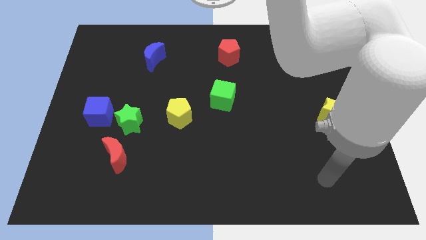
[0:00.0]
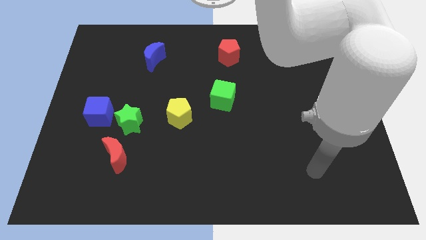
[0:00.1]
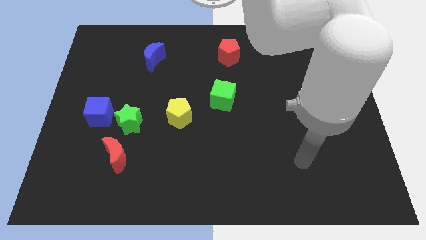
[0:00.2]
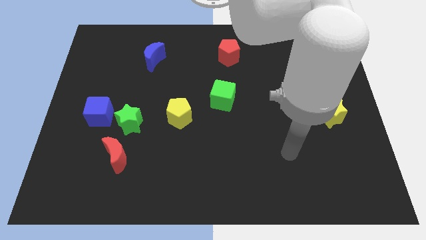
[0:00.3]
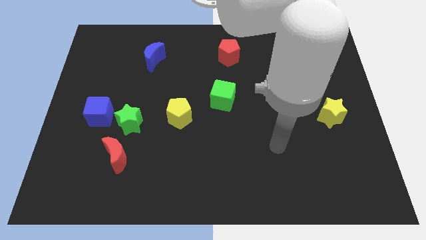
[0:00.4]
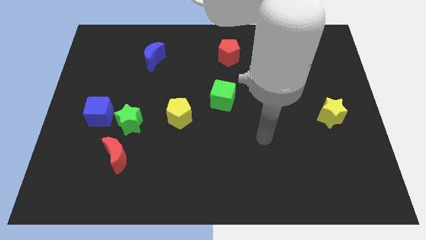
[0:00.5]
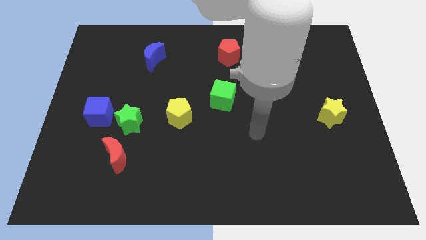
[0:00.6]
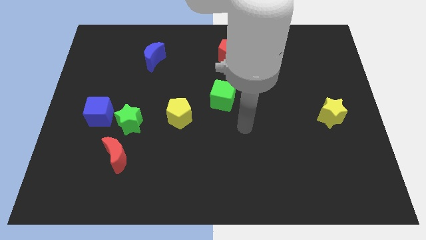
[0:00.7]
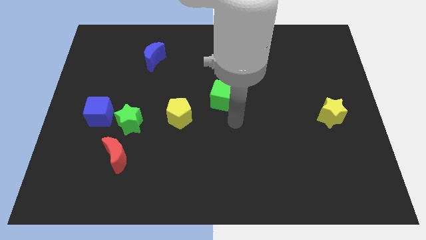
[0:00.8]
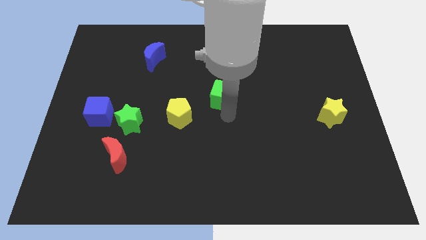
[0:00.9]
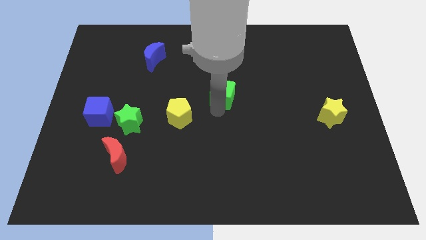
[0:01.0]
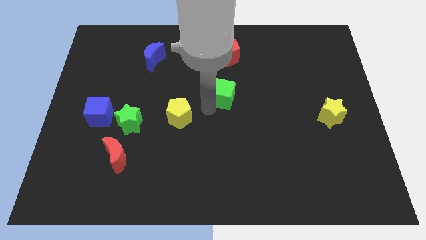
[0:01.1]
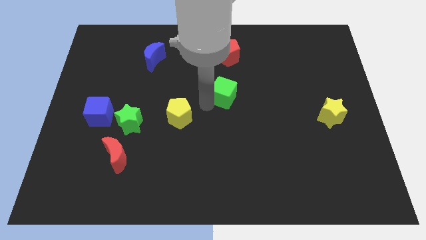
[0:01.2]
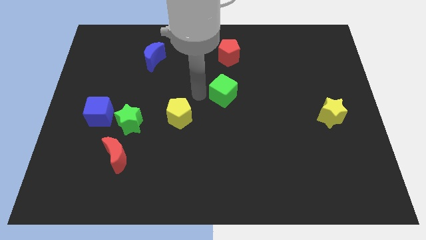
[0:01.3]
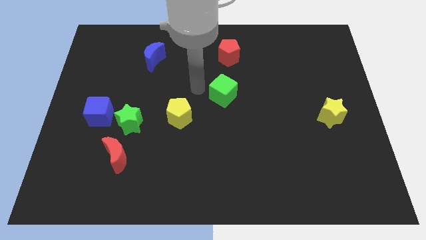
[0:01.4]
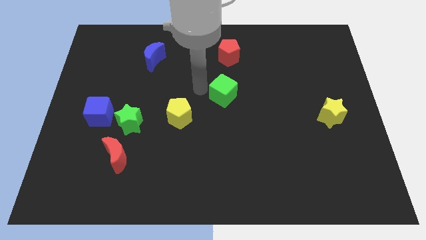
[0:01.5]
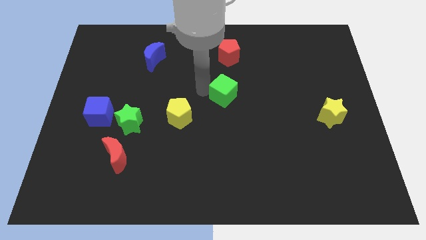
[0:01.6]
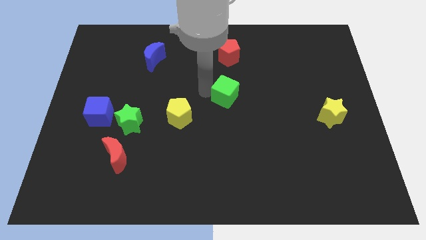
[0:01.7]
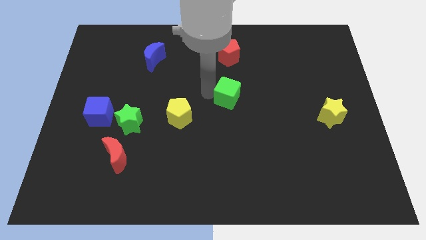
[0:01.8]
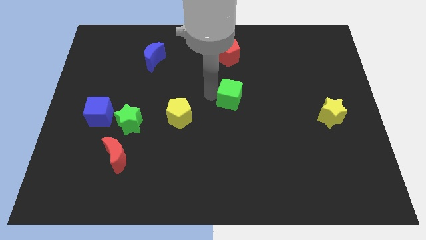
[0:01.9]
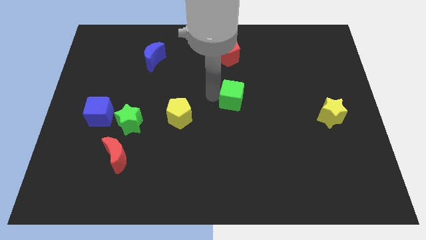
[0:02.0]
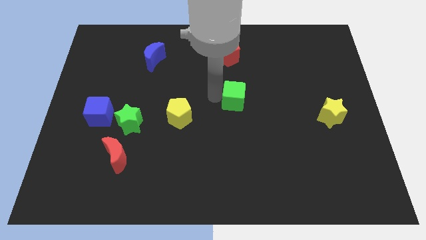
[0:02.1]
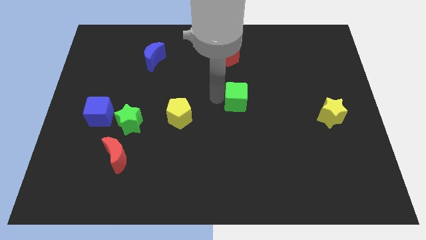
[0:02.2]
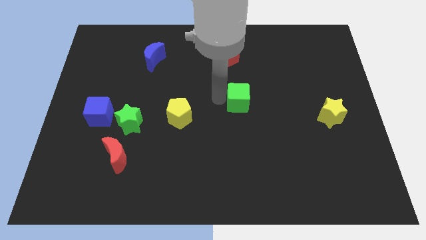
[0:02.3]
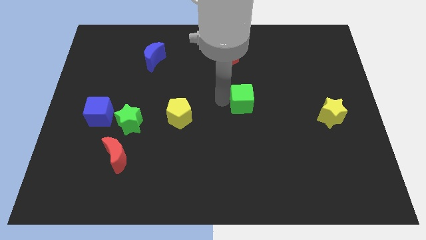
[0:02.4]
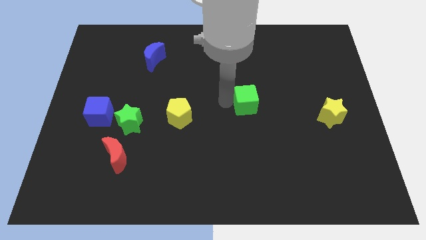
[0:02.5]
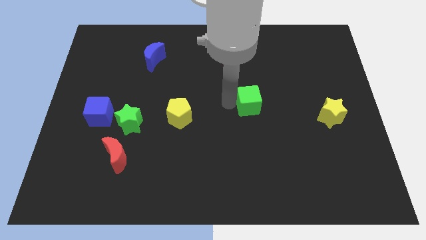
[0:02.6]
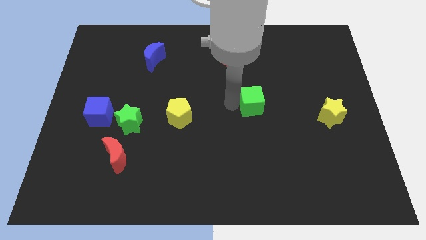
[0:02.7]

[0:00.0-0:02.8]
slightly move the green cube right

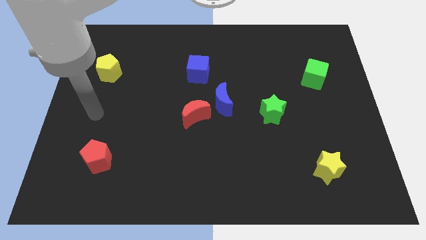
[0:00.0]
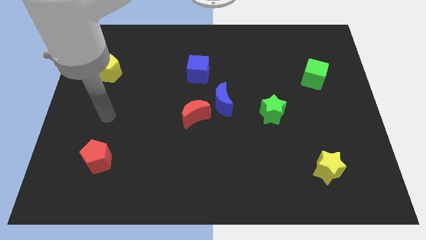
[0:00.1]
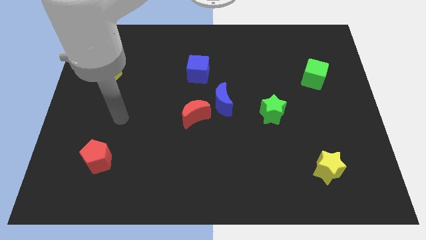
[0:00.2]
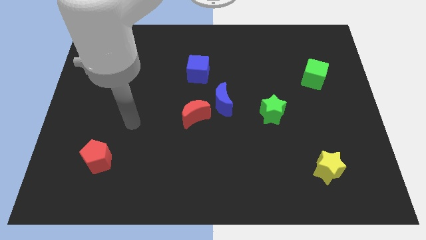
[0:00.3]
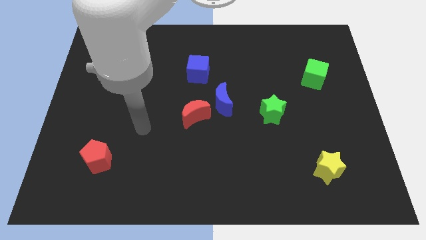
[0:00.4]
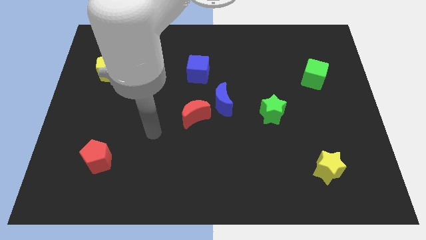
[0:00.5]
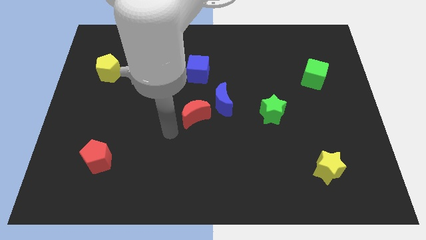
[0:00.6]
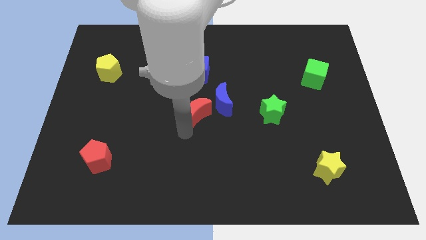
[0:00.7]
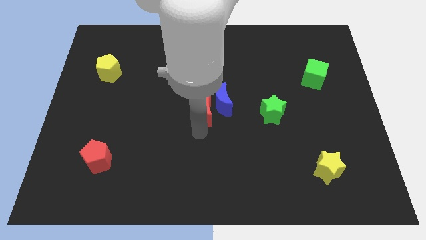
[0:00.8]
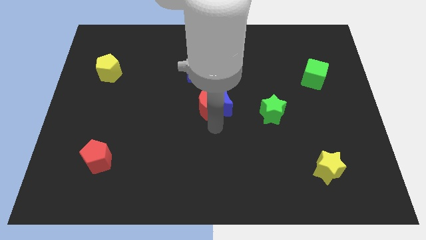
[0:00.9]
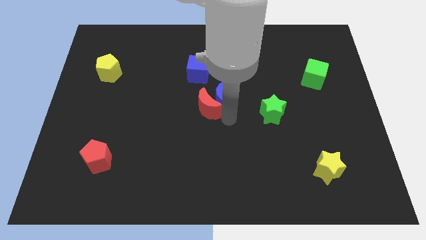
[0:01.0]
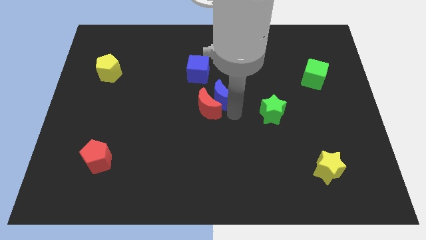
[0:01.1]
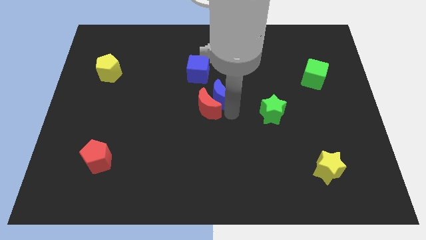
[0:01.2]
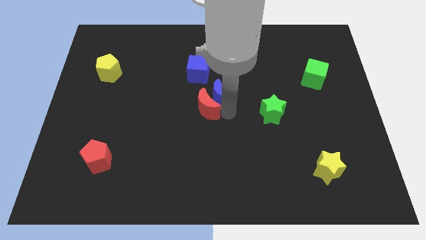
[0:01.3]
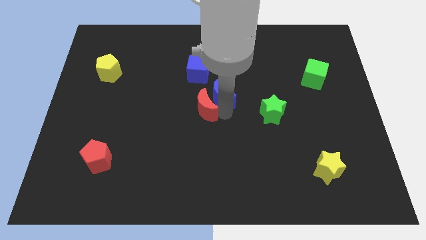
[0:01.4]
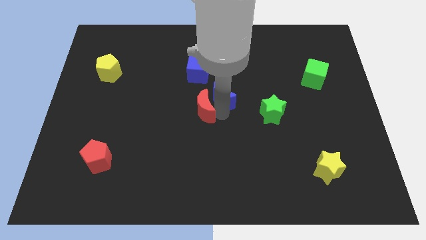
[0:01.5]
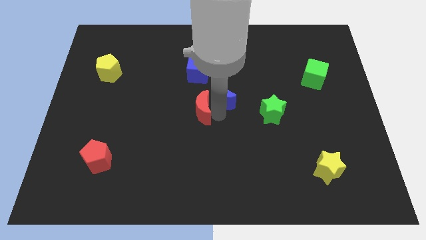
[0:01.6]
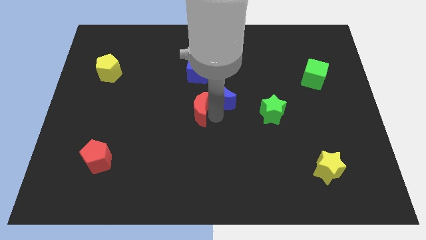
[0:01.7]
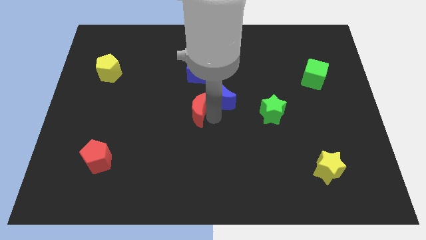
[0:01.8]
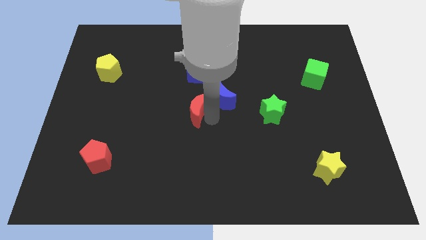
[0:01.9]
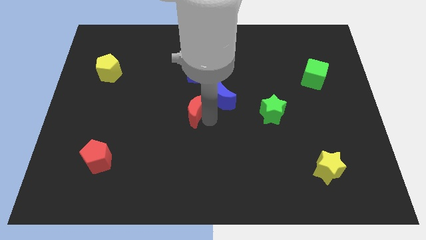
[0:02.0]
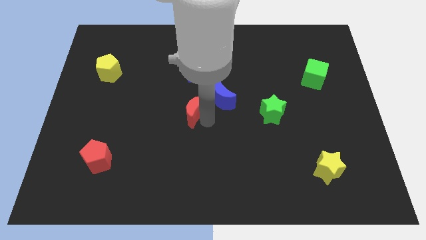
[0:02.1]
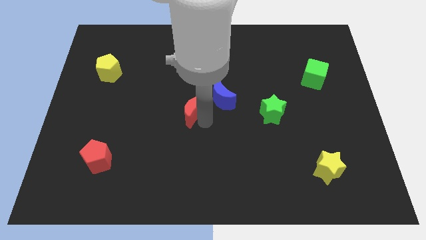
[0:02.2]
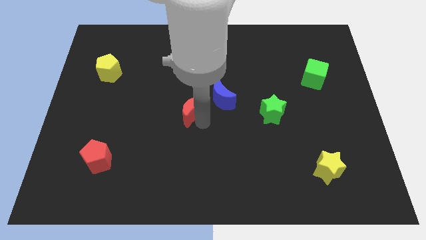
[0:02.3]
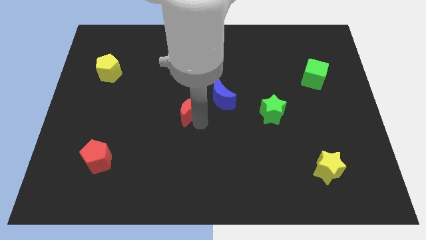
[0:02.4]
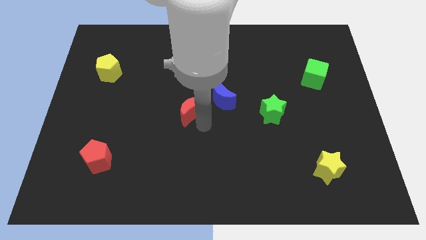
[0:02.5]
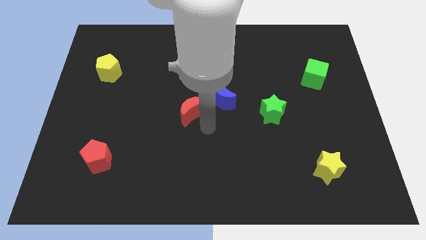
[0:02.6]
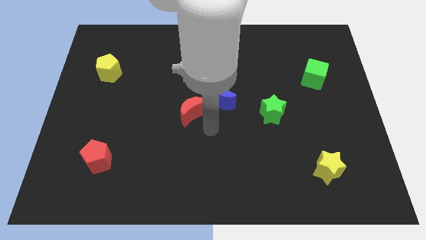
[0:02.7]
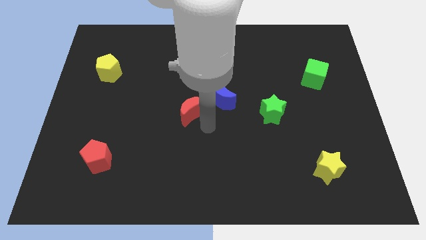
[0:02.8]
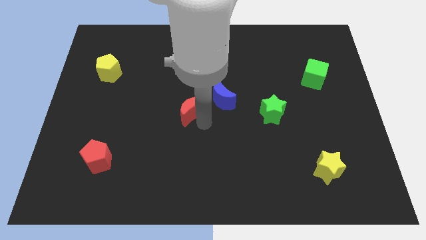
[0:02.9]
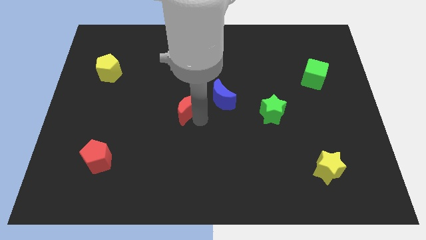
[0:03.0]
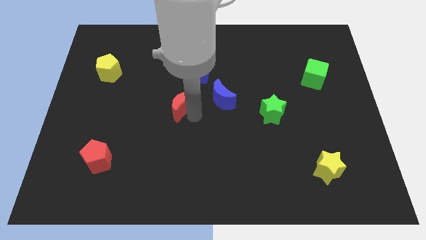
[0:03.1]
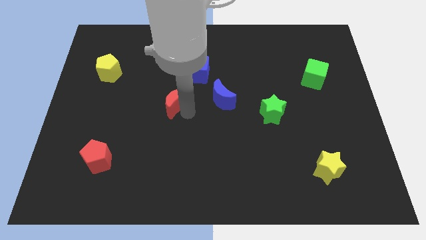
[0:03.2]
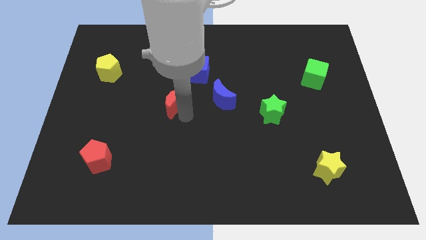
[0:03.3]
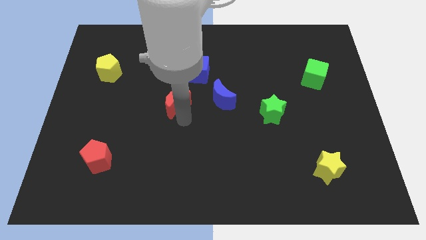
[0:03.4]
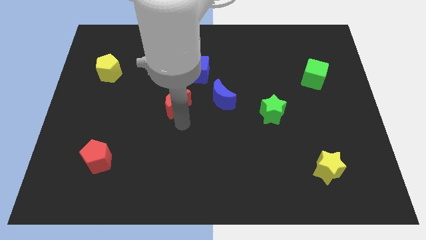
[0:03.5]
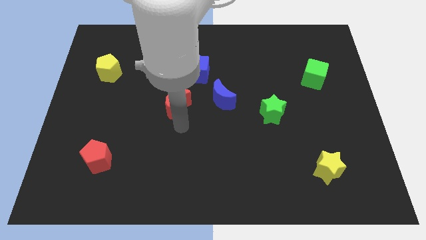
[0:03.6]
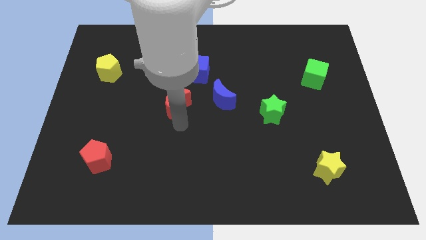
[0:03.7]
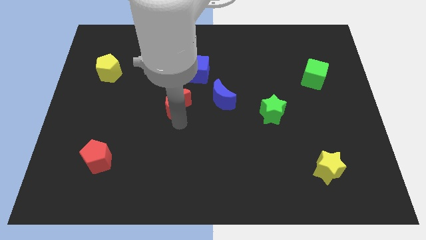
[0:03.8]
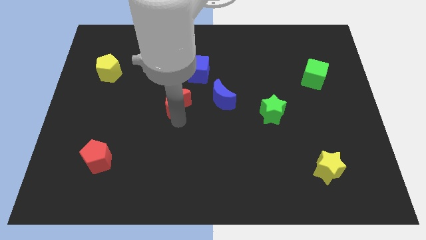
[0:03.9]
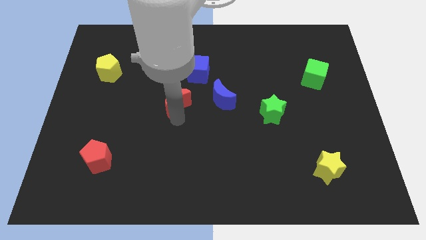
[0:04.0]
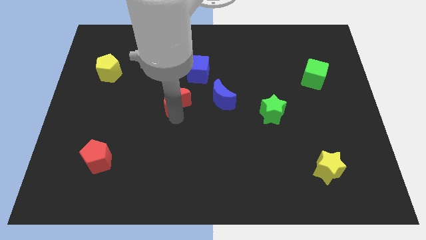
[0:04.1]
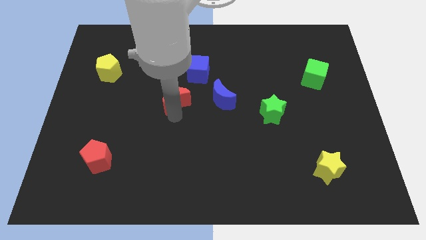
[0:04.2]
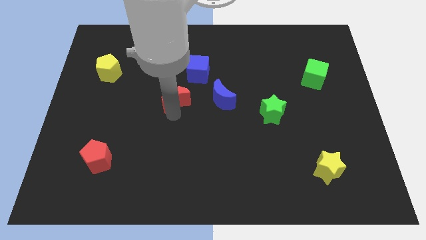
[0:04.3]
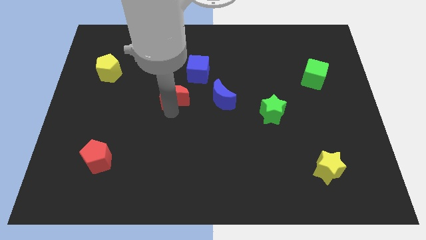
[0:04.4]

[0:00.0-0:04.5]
slightly push the red moon up and left diagonally

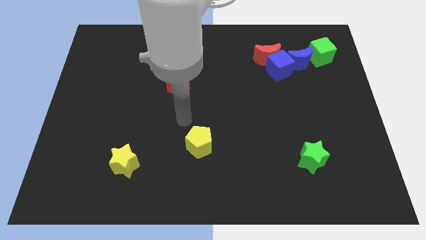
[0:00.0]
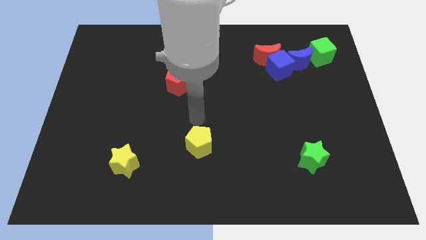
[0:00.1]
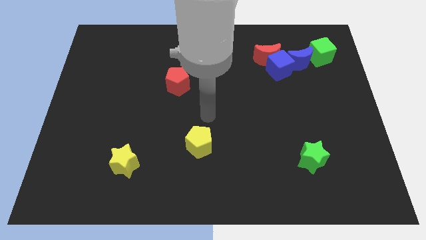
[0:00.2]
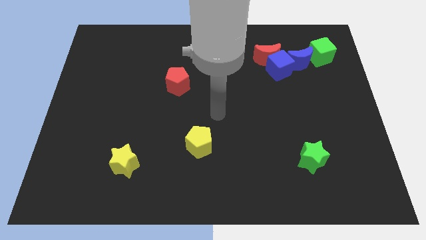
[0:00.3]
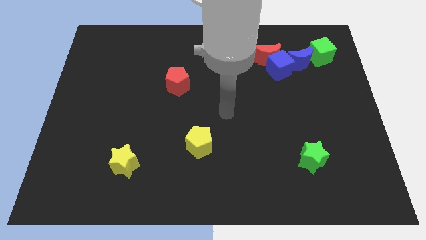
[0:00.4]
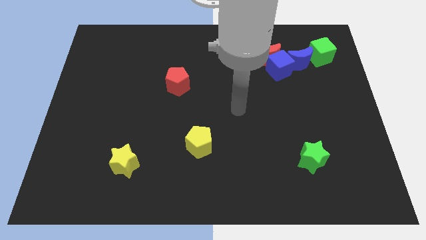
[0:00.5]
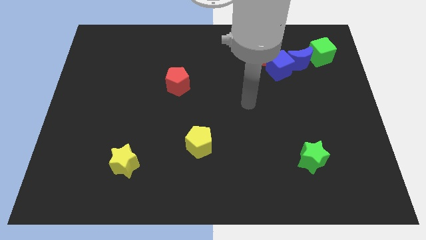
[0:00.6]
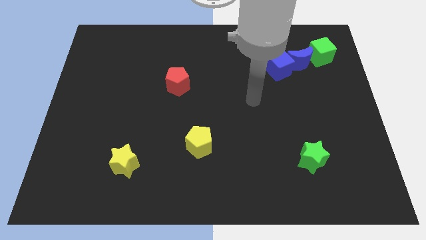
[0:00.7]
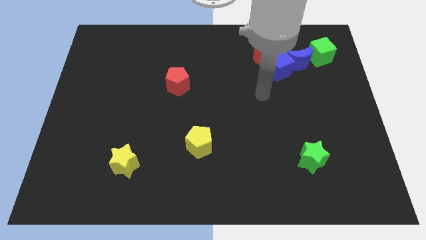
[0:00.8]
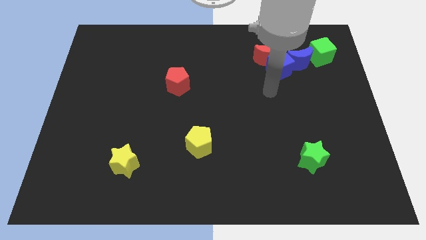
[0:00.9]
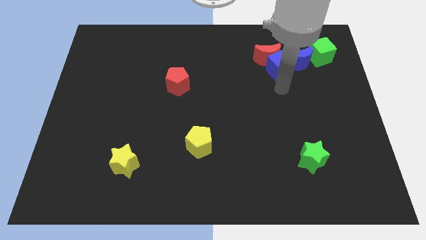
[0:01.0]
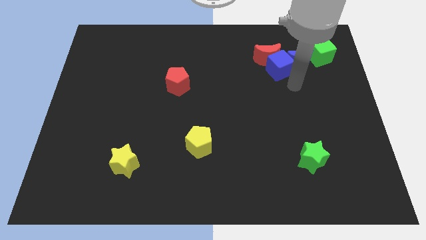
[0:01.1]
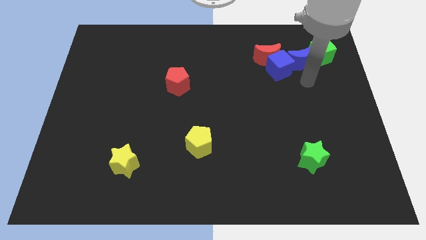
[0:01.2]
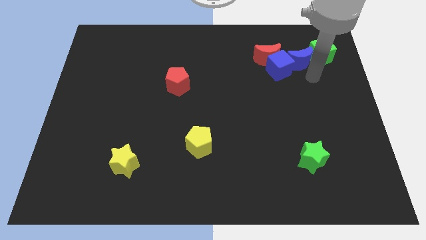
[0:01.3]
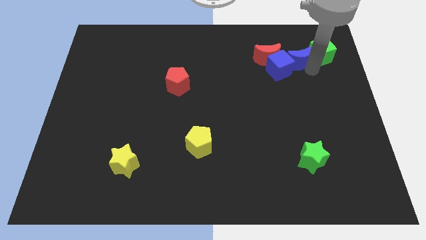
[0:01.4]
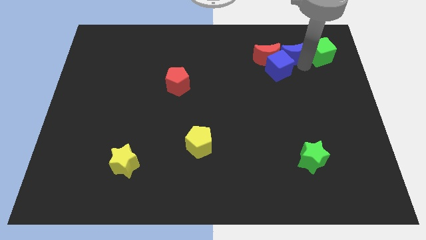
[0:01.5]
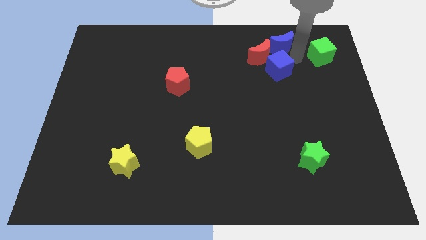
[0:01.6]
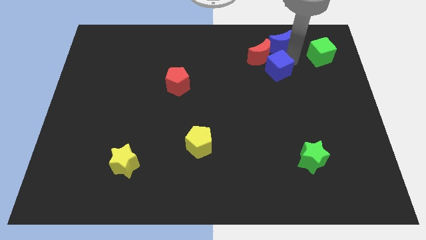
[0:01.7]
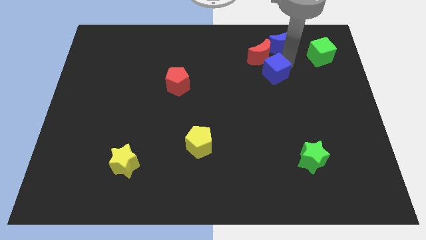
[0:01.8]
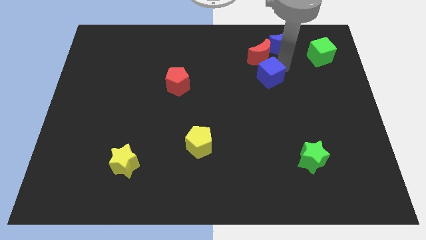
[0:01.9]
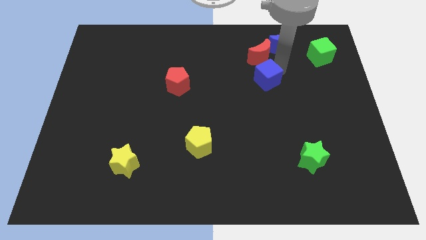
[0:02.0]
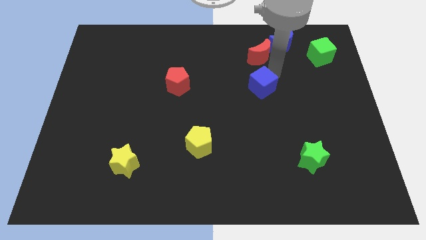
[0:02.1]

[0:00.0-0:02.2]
move the blue cube downwards and left diagonally a little
